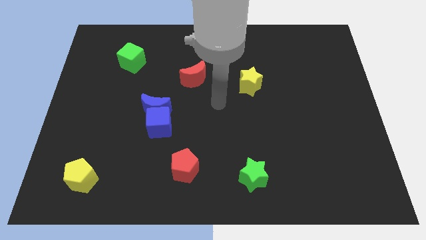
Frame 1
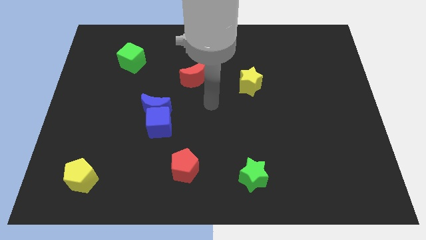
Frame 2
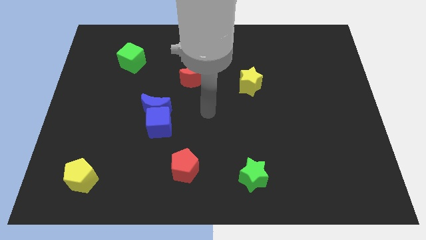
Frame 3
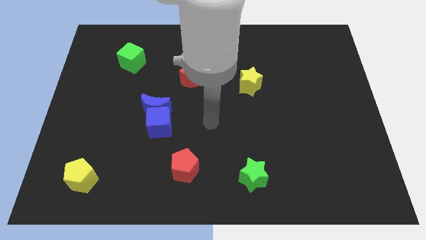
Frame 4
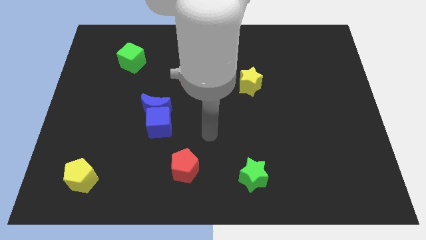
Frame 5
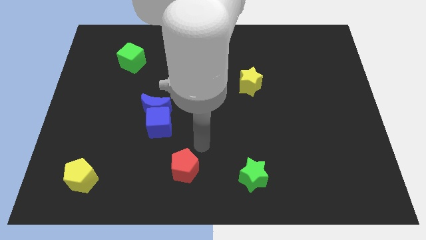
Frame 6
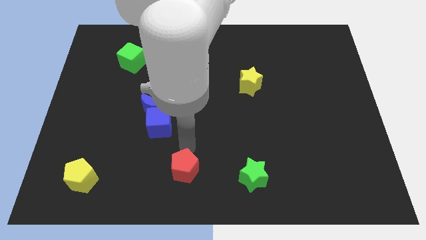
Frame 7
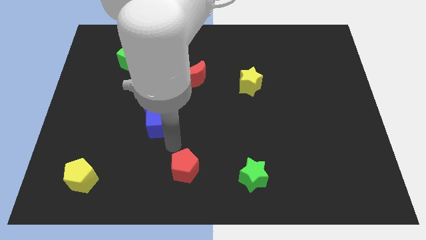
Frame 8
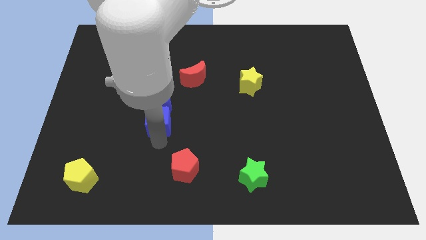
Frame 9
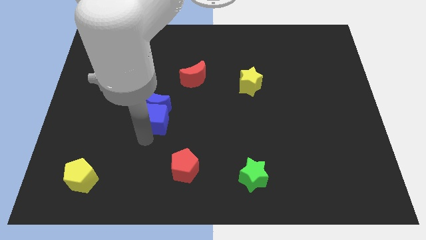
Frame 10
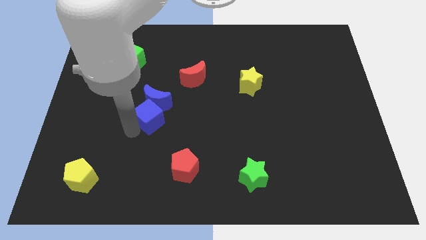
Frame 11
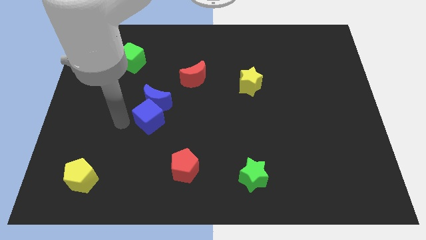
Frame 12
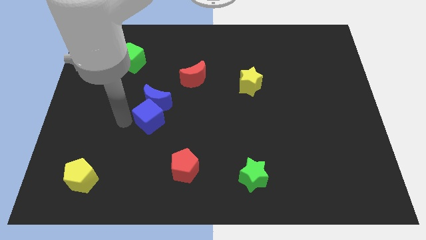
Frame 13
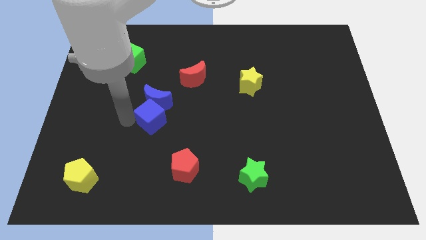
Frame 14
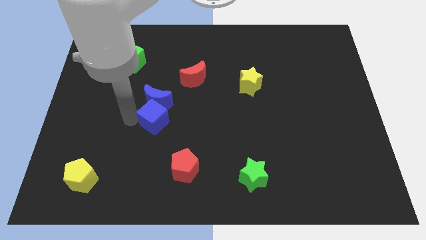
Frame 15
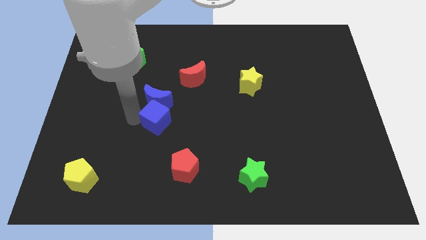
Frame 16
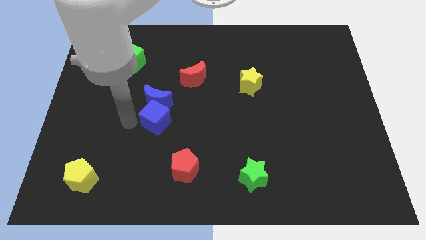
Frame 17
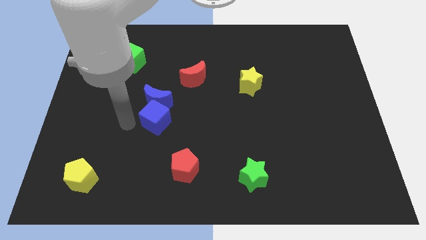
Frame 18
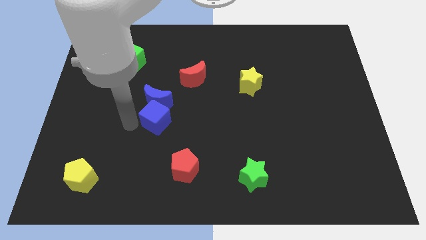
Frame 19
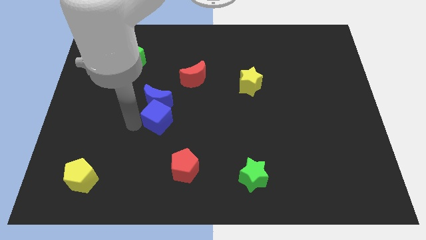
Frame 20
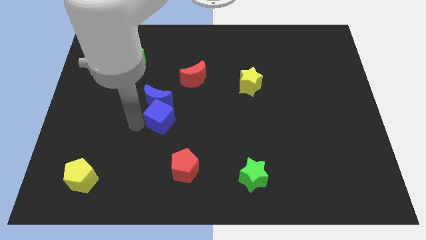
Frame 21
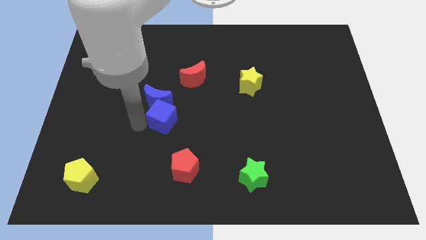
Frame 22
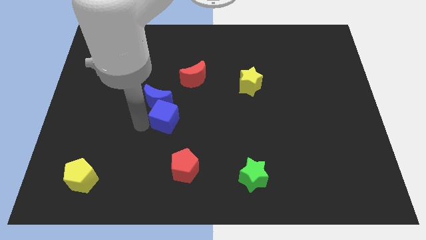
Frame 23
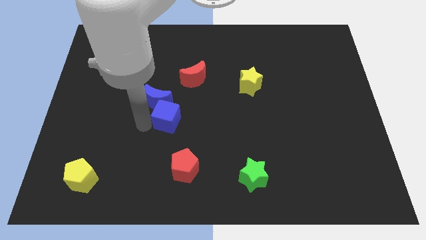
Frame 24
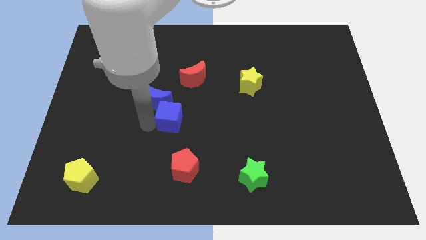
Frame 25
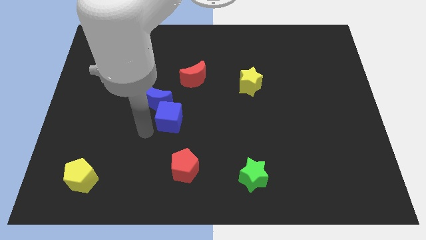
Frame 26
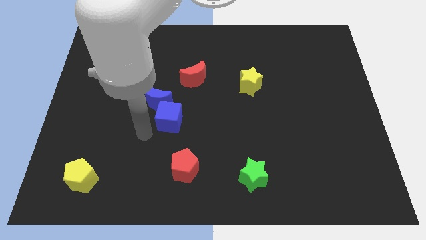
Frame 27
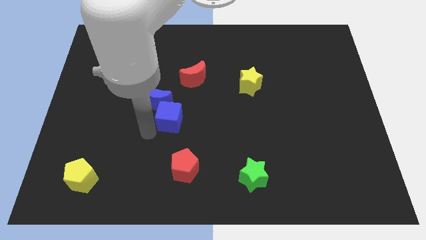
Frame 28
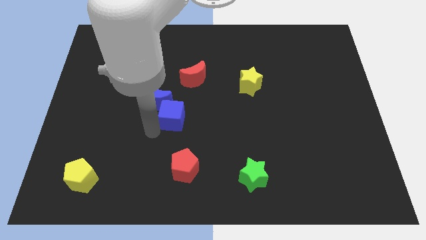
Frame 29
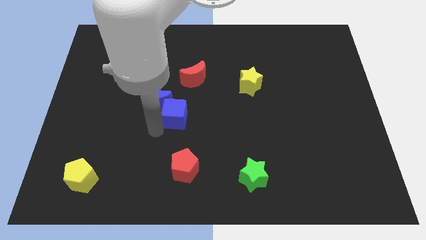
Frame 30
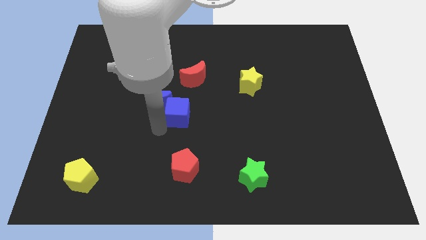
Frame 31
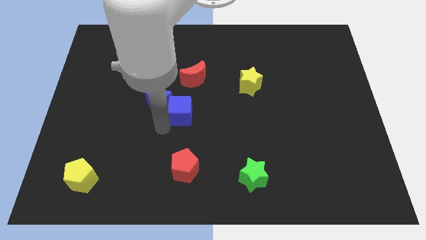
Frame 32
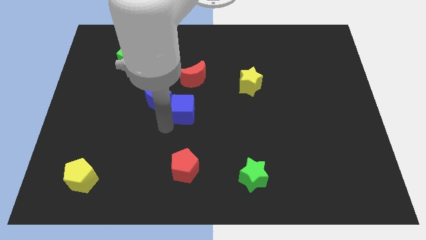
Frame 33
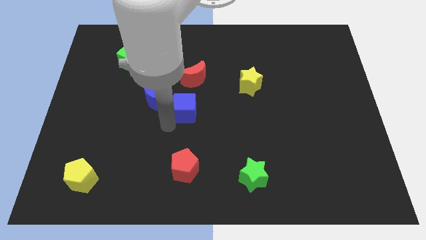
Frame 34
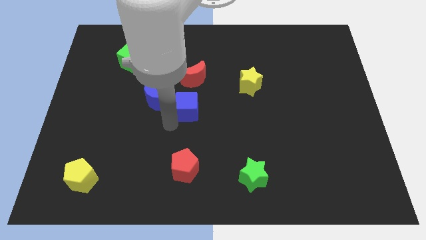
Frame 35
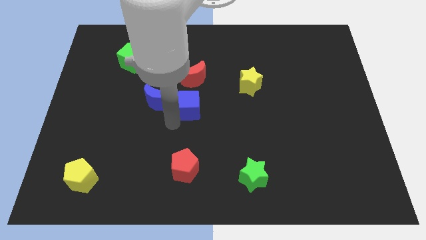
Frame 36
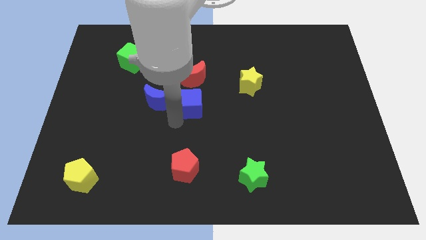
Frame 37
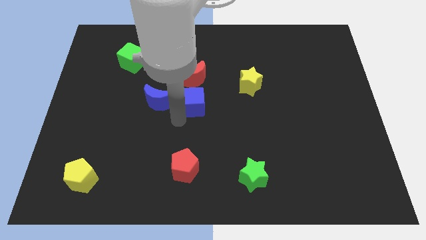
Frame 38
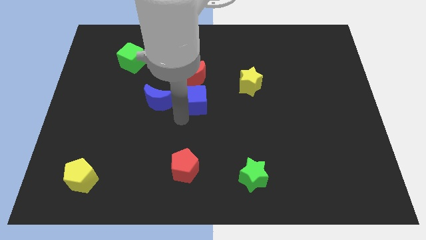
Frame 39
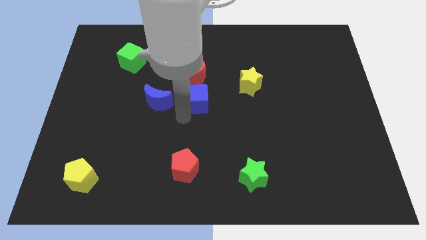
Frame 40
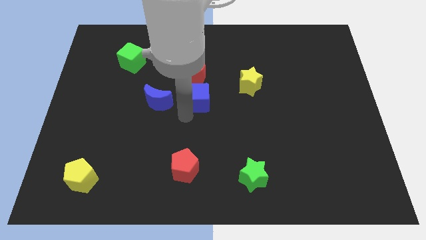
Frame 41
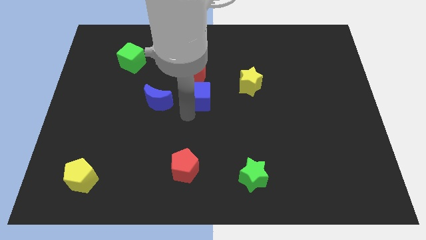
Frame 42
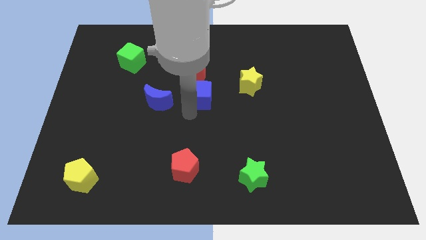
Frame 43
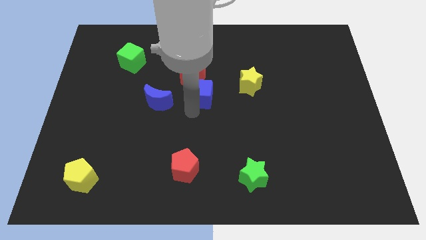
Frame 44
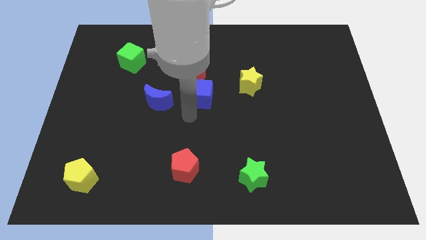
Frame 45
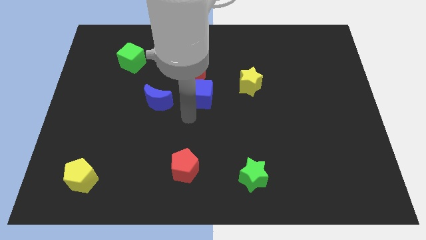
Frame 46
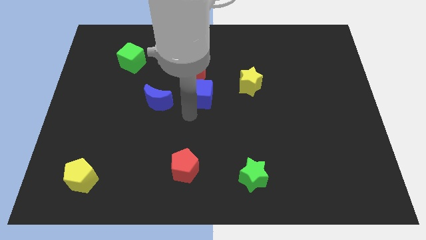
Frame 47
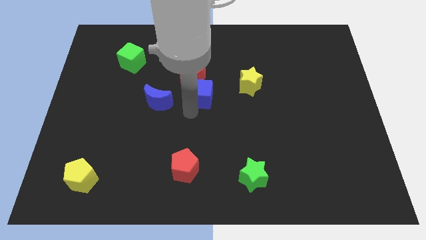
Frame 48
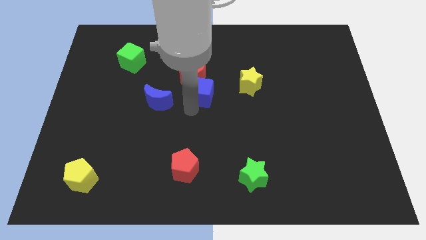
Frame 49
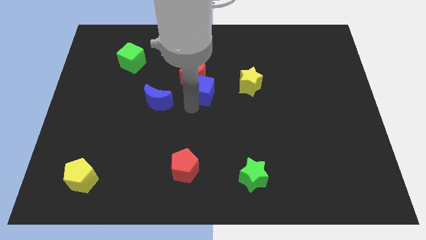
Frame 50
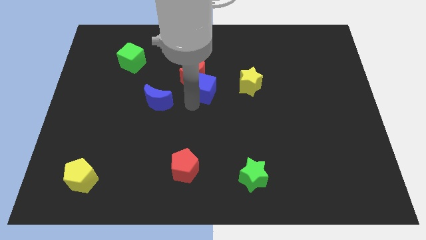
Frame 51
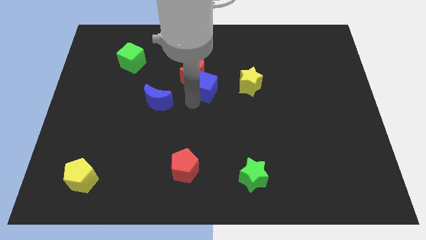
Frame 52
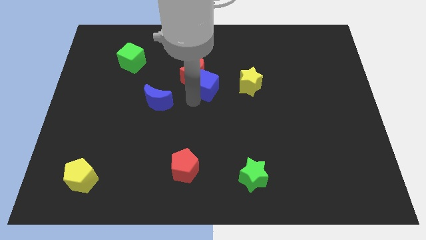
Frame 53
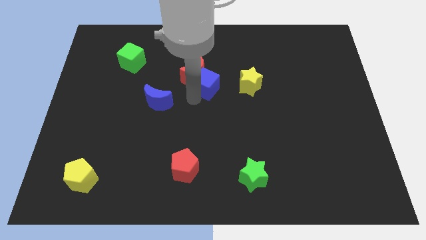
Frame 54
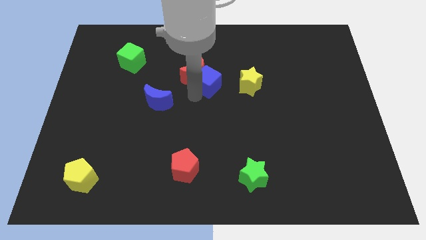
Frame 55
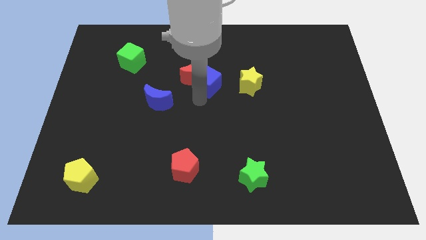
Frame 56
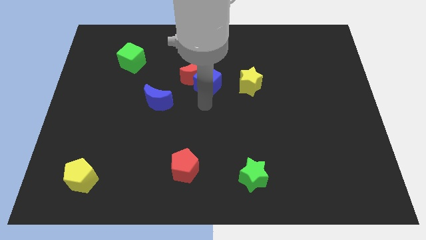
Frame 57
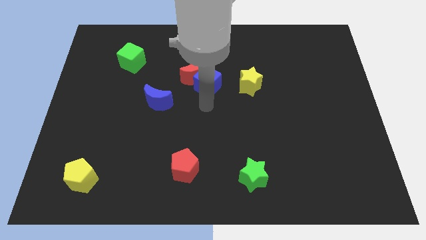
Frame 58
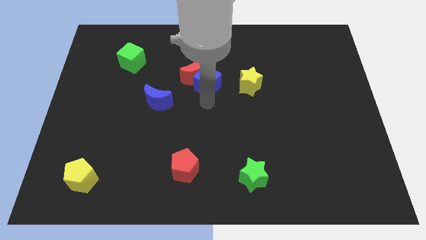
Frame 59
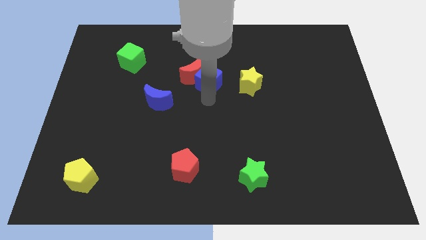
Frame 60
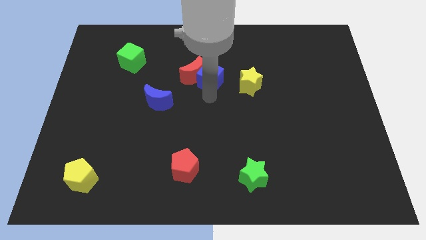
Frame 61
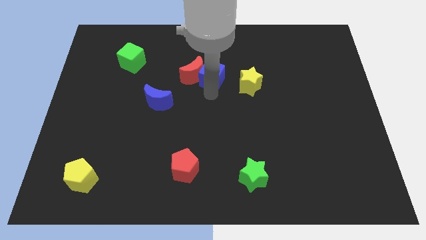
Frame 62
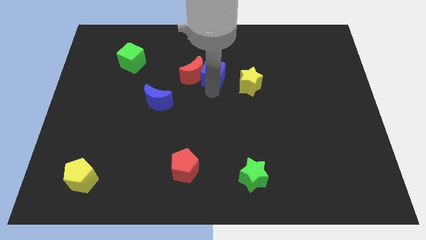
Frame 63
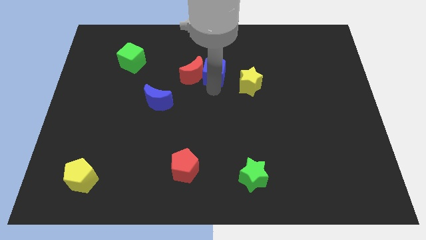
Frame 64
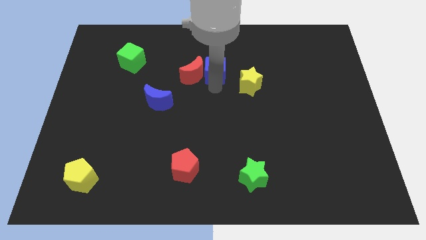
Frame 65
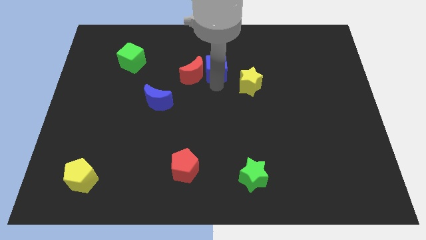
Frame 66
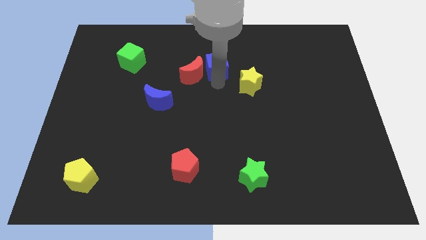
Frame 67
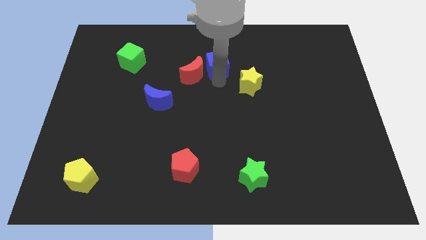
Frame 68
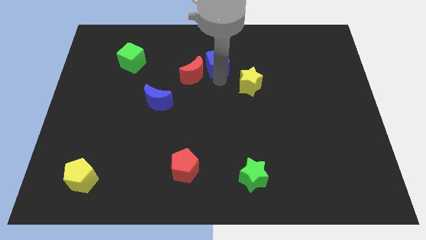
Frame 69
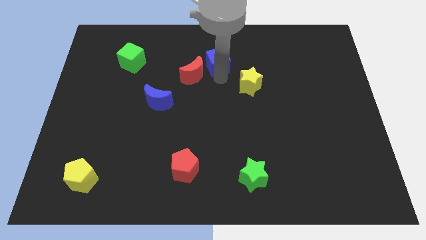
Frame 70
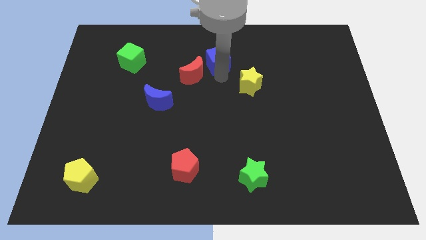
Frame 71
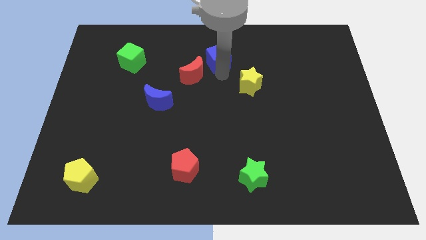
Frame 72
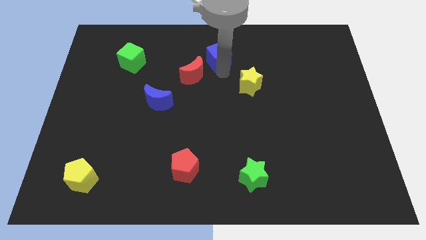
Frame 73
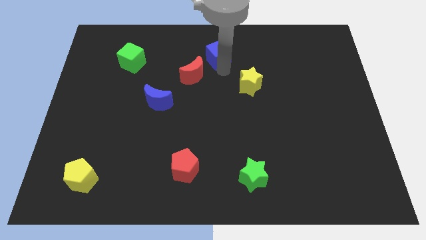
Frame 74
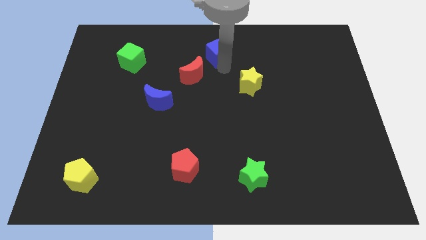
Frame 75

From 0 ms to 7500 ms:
move the blue cube to the top side
